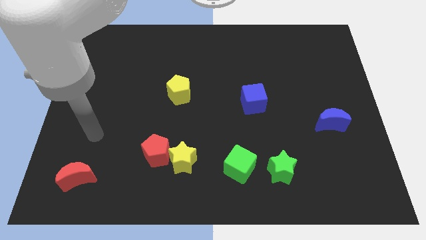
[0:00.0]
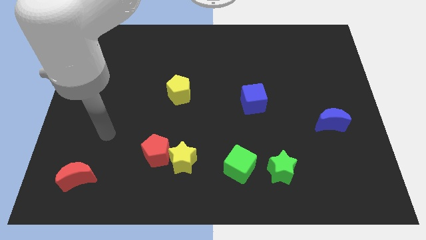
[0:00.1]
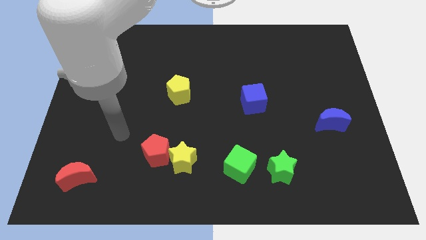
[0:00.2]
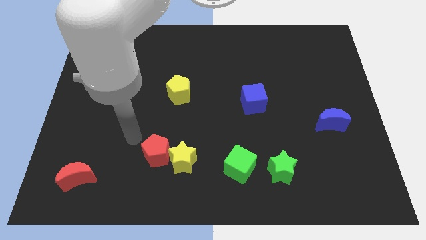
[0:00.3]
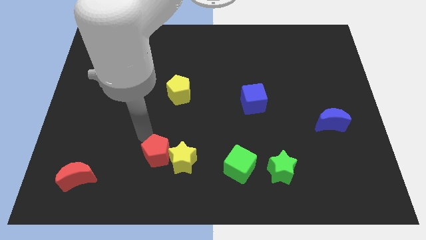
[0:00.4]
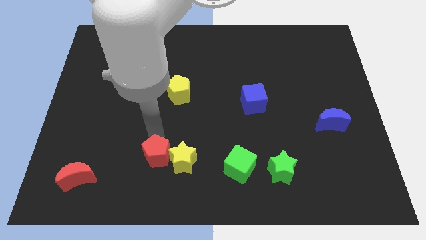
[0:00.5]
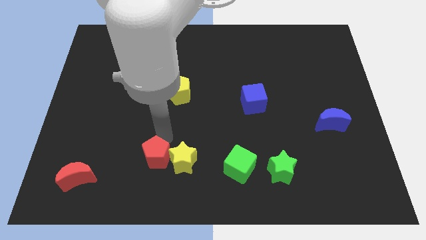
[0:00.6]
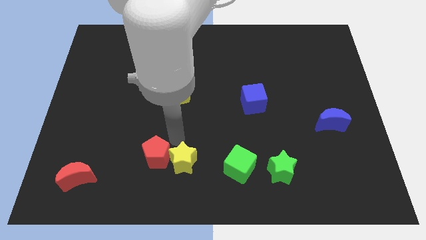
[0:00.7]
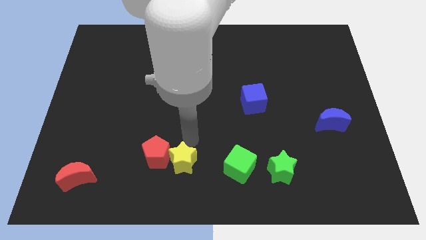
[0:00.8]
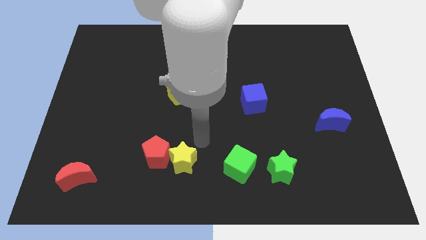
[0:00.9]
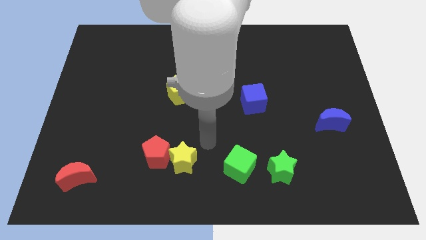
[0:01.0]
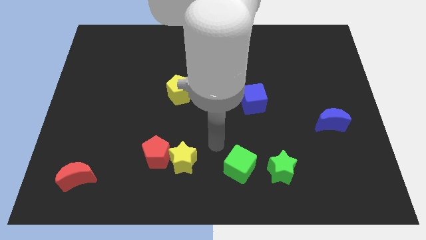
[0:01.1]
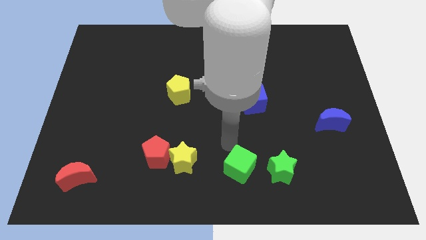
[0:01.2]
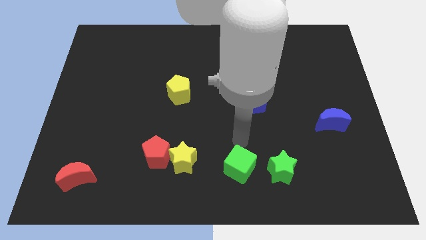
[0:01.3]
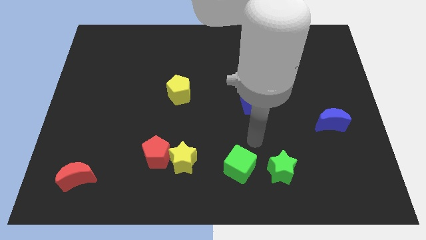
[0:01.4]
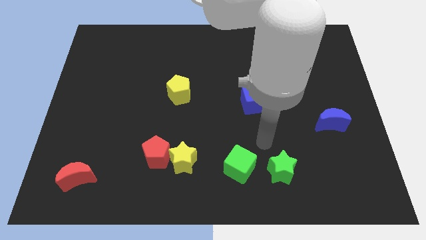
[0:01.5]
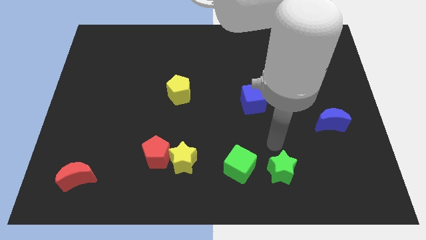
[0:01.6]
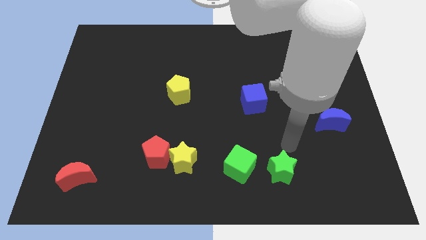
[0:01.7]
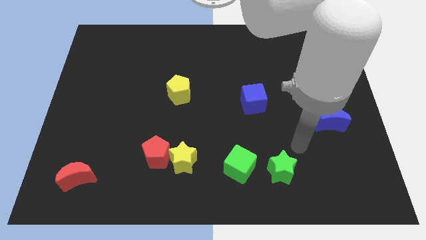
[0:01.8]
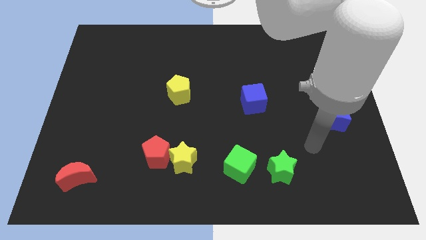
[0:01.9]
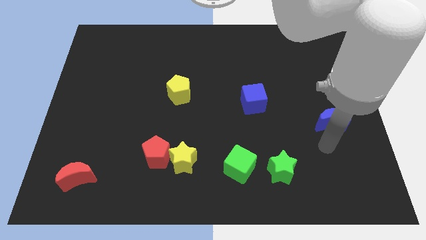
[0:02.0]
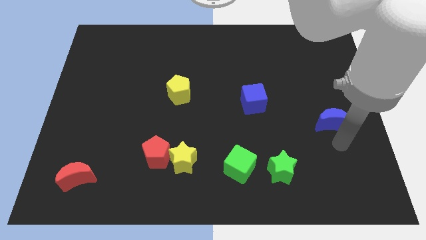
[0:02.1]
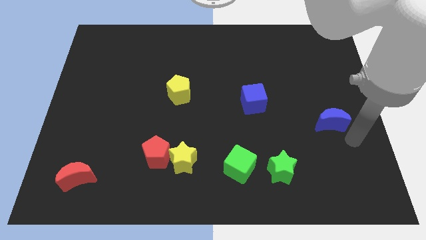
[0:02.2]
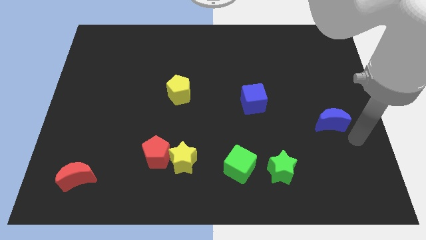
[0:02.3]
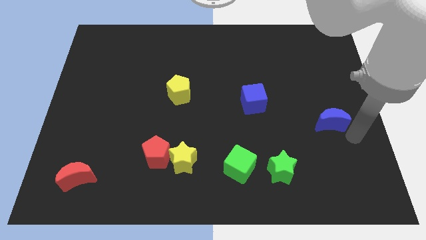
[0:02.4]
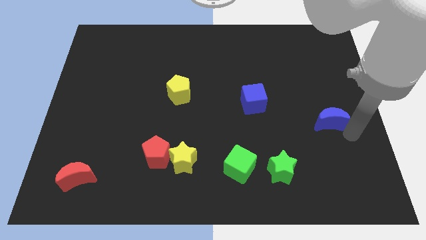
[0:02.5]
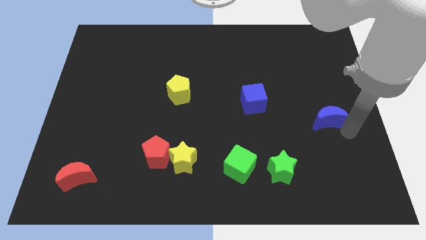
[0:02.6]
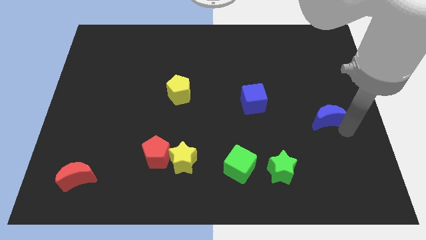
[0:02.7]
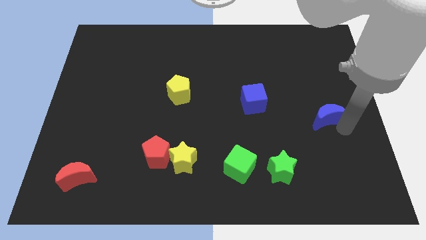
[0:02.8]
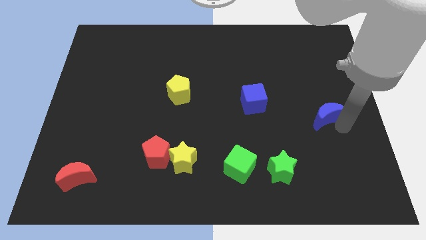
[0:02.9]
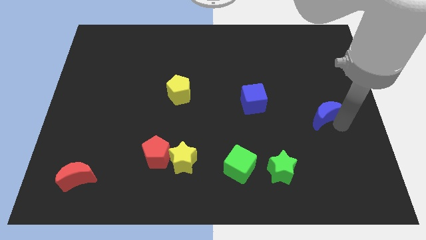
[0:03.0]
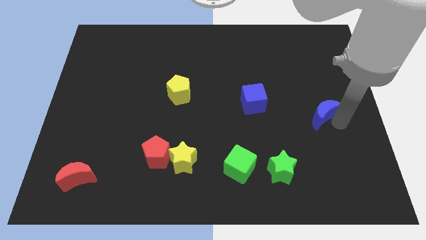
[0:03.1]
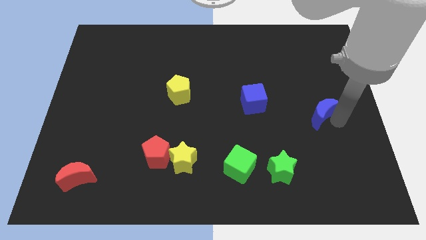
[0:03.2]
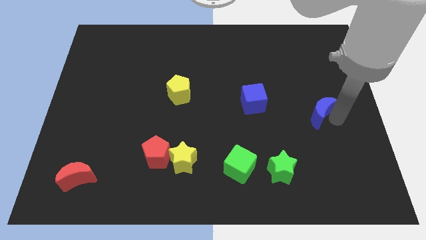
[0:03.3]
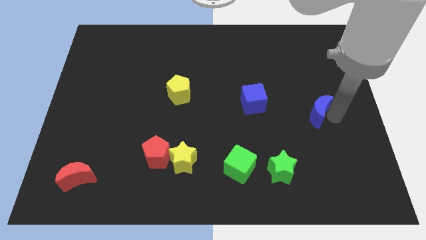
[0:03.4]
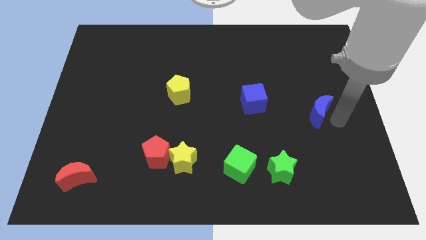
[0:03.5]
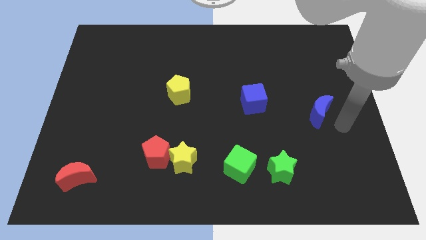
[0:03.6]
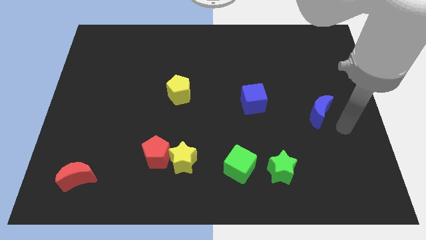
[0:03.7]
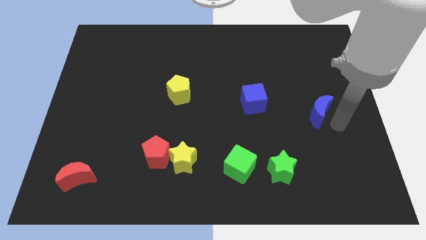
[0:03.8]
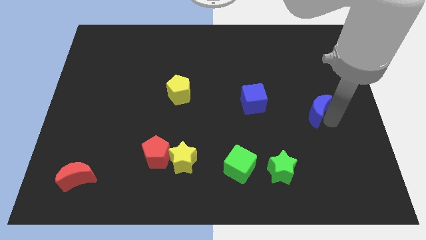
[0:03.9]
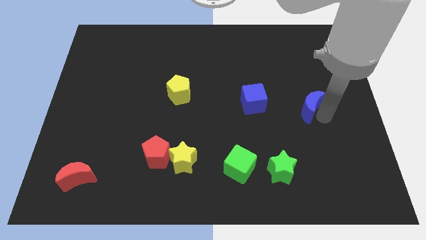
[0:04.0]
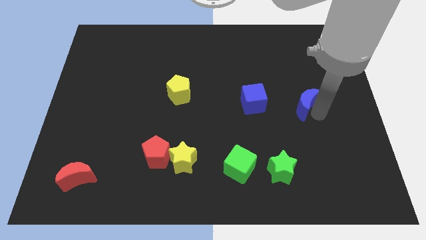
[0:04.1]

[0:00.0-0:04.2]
slightly push the blue moon diagonally upwards and left

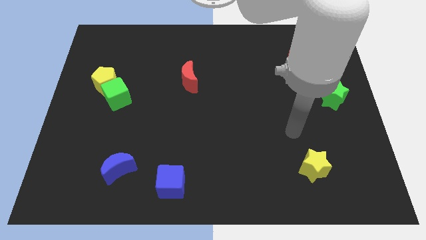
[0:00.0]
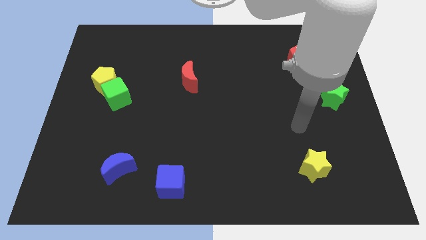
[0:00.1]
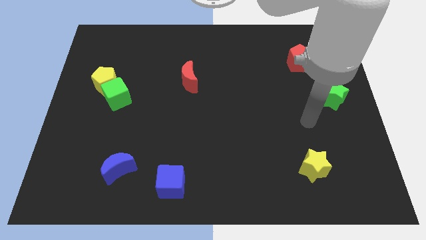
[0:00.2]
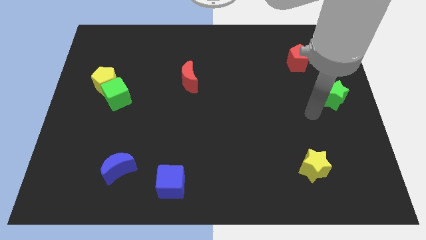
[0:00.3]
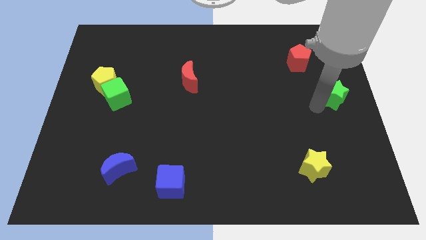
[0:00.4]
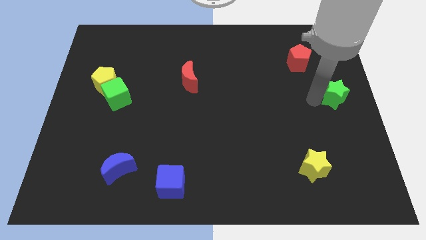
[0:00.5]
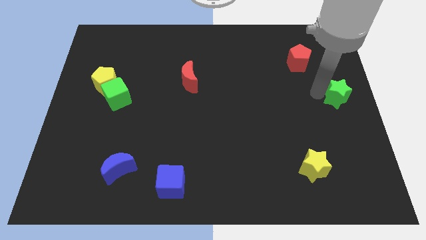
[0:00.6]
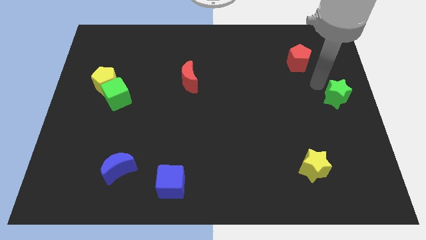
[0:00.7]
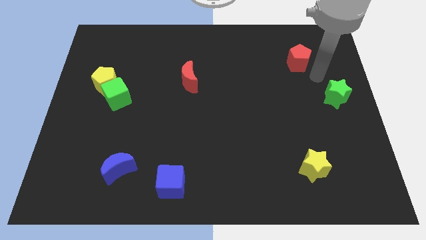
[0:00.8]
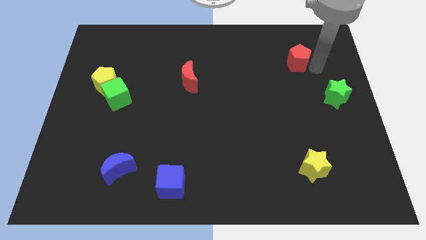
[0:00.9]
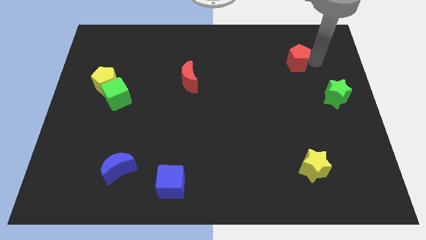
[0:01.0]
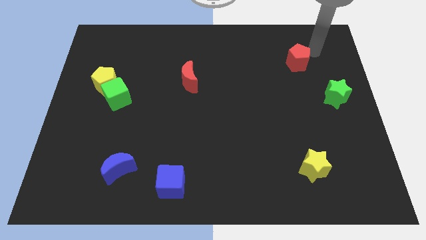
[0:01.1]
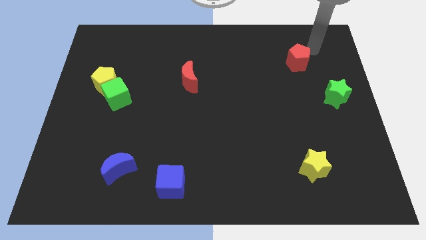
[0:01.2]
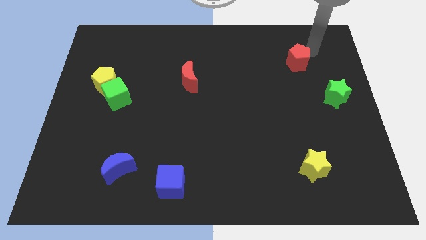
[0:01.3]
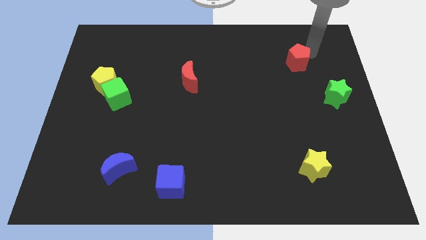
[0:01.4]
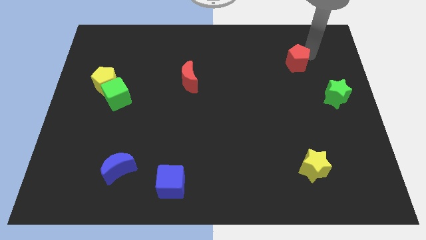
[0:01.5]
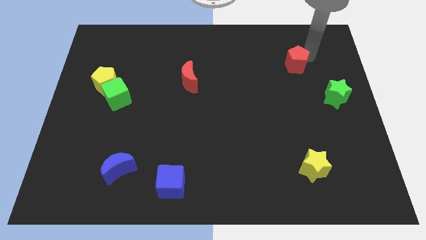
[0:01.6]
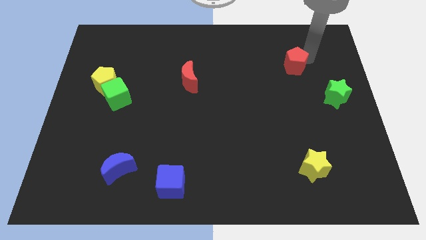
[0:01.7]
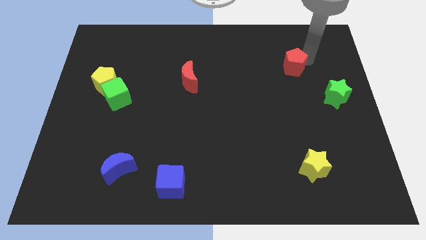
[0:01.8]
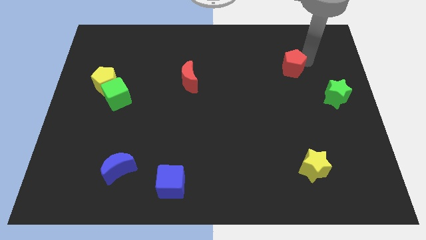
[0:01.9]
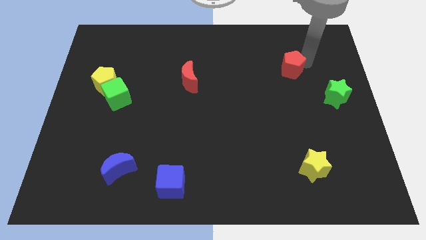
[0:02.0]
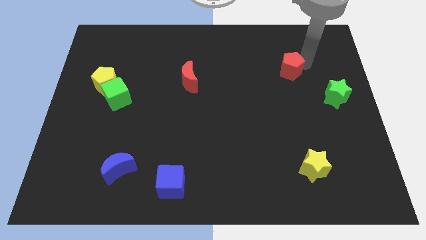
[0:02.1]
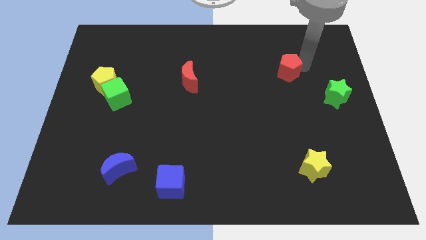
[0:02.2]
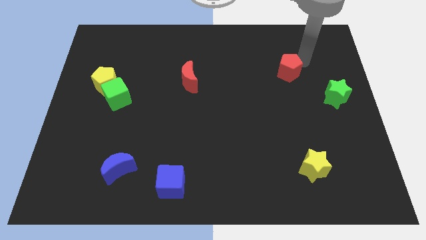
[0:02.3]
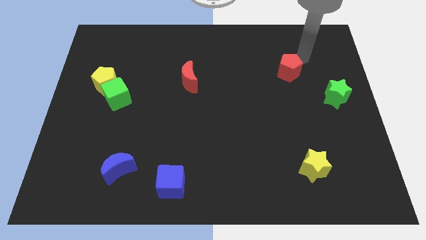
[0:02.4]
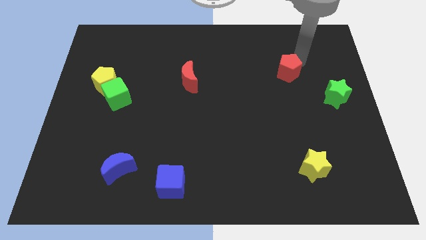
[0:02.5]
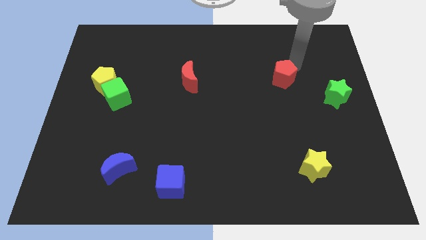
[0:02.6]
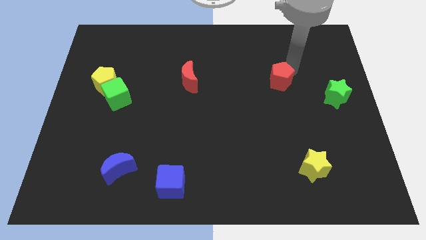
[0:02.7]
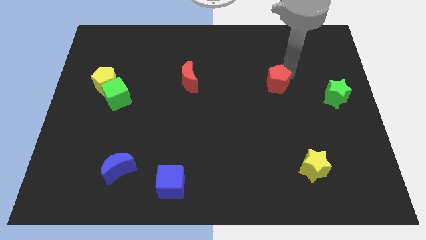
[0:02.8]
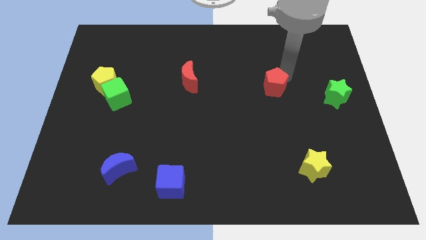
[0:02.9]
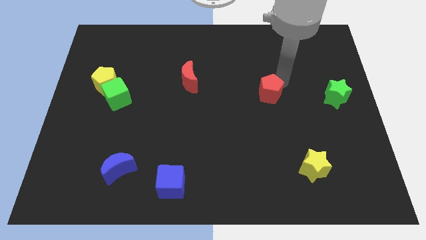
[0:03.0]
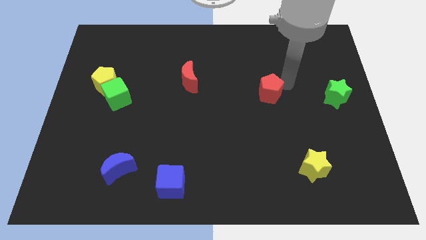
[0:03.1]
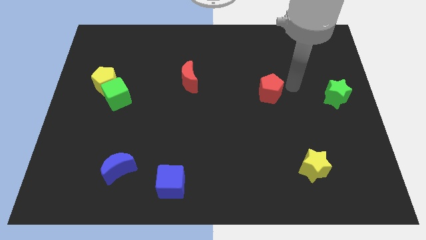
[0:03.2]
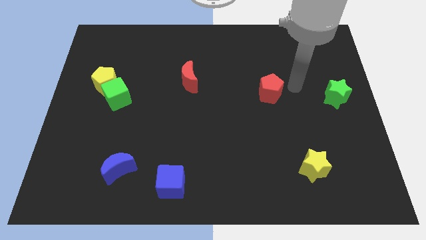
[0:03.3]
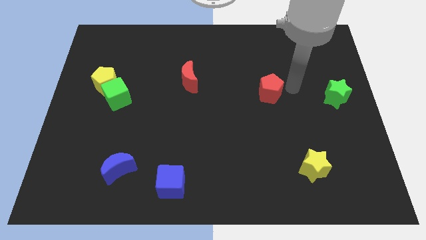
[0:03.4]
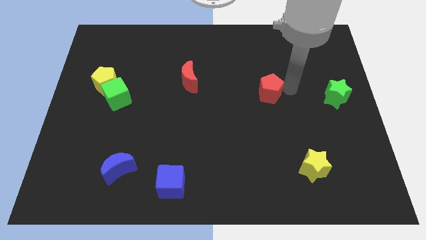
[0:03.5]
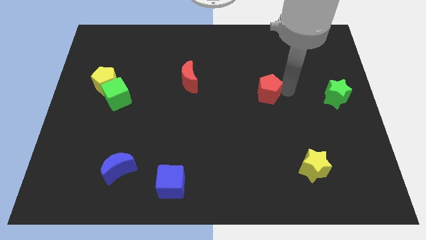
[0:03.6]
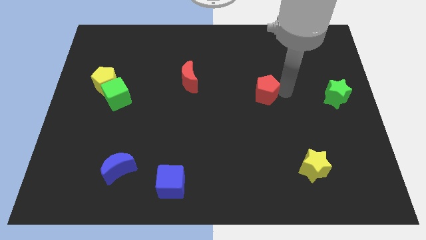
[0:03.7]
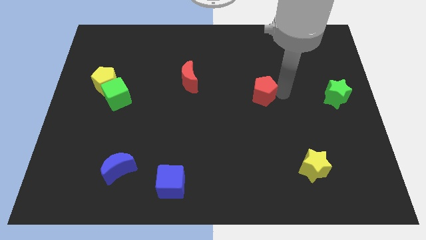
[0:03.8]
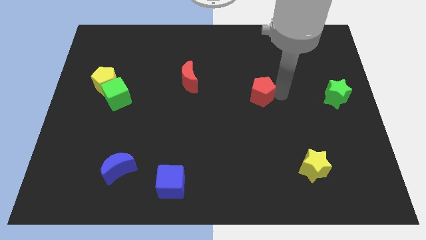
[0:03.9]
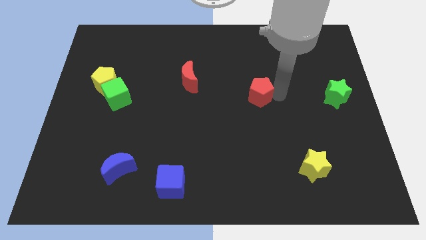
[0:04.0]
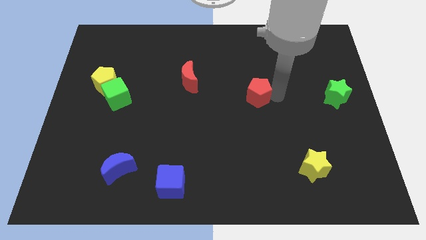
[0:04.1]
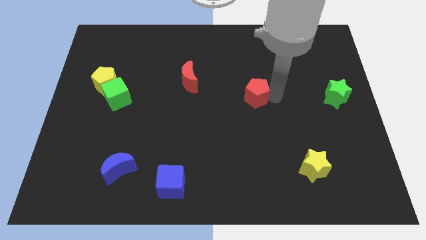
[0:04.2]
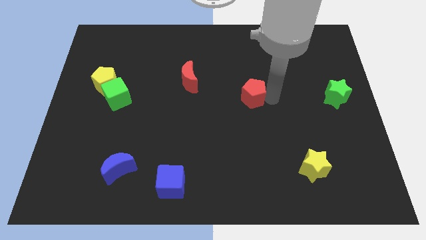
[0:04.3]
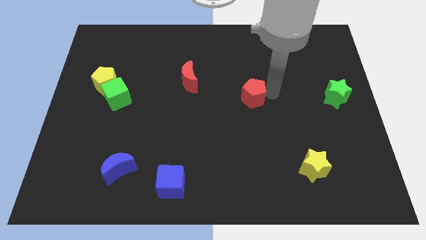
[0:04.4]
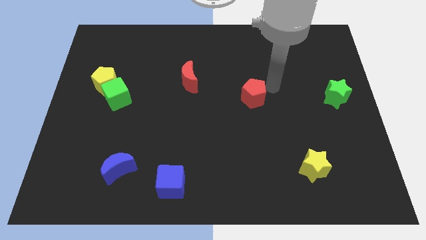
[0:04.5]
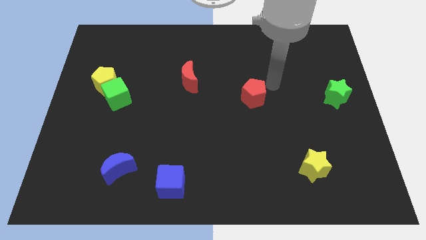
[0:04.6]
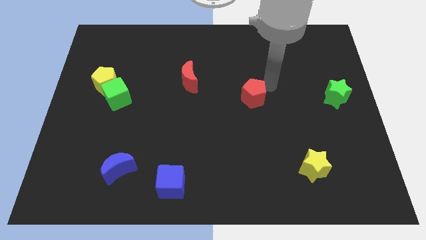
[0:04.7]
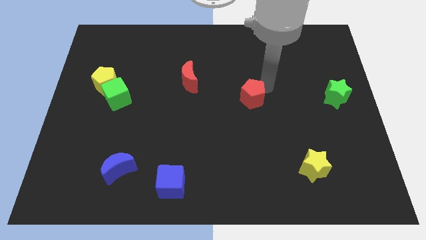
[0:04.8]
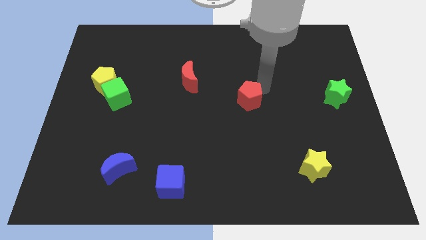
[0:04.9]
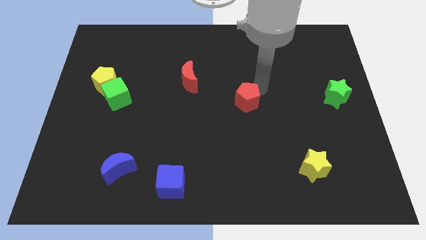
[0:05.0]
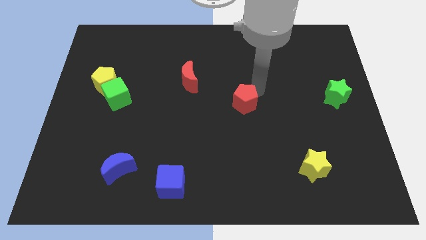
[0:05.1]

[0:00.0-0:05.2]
move the red pentagon diagonally down and left
